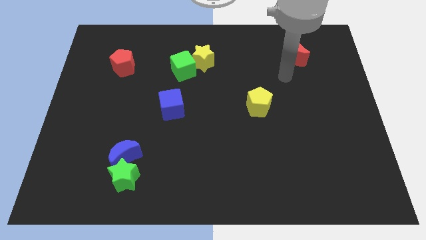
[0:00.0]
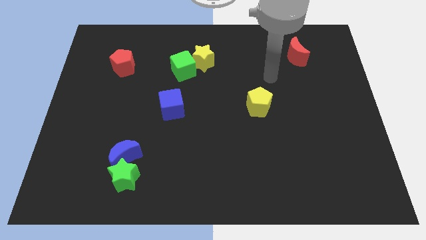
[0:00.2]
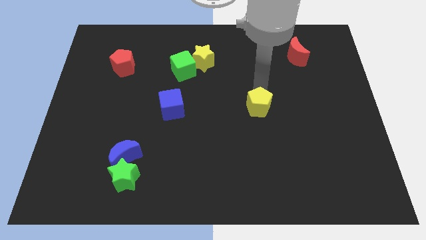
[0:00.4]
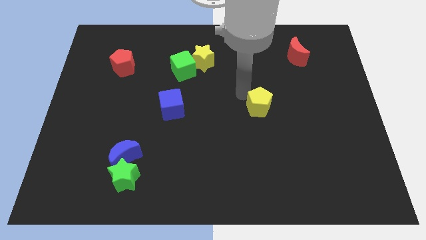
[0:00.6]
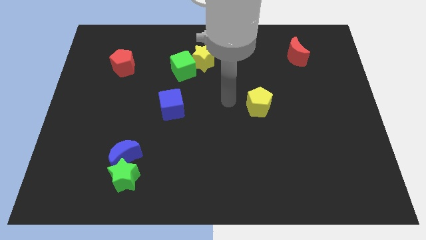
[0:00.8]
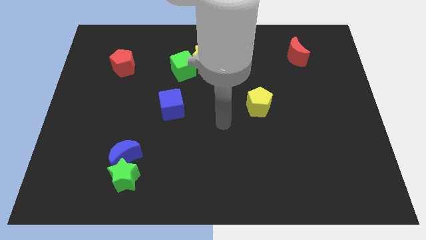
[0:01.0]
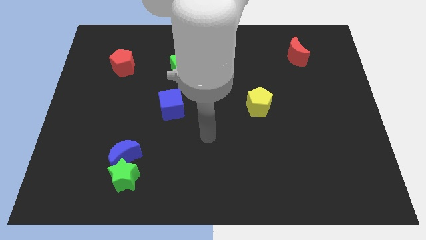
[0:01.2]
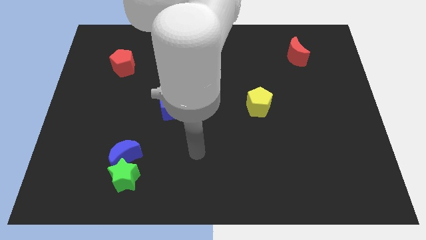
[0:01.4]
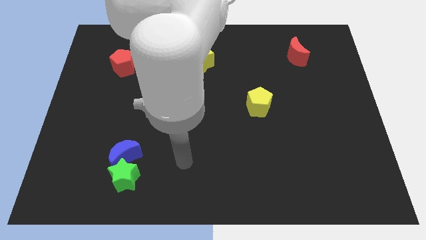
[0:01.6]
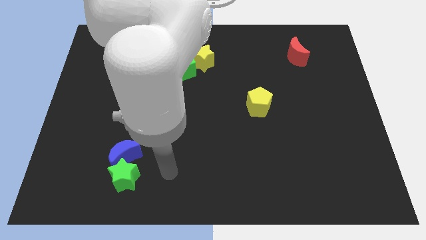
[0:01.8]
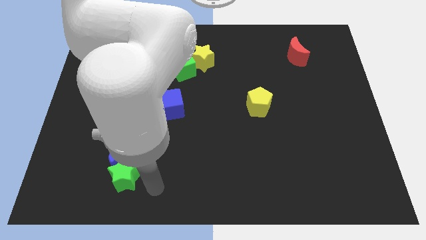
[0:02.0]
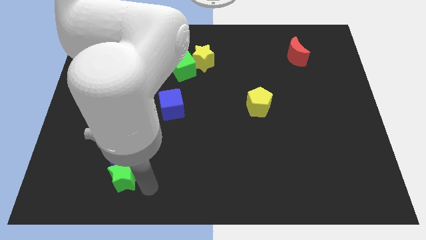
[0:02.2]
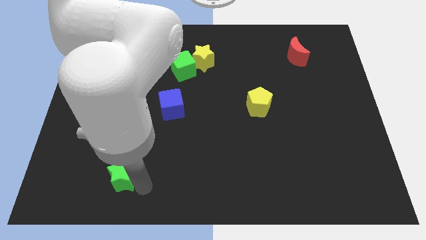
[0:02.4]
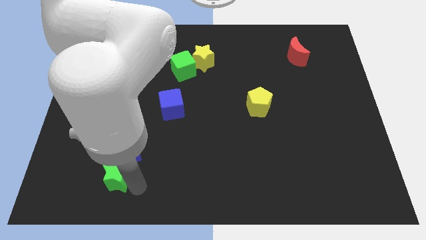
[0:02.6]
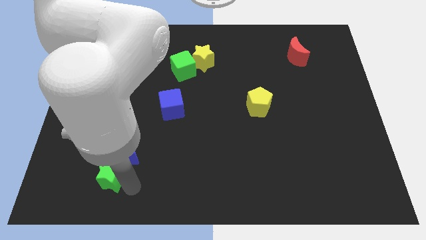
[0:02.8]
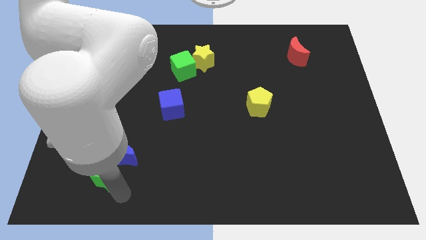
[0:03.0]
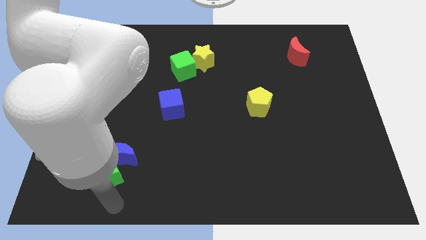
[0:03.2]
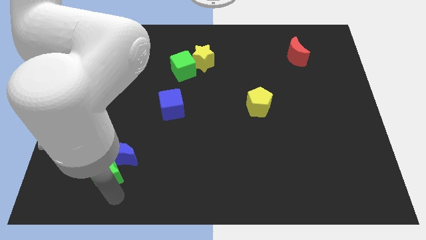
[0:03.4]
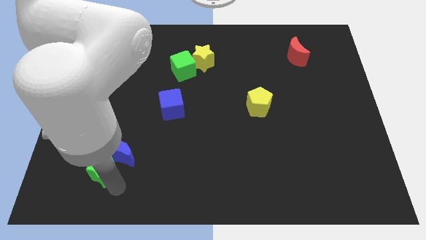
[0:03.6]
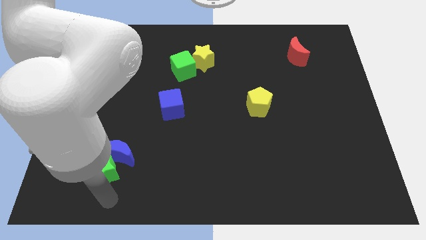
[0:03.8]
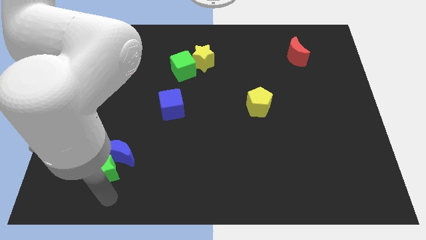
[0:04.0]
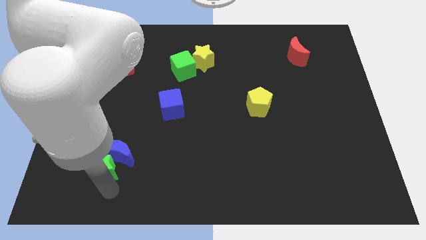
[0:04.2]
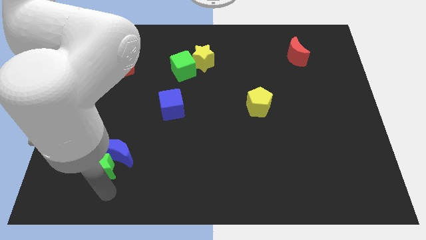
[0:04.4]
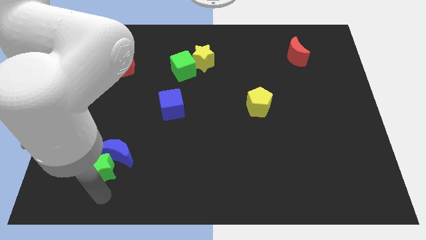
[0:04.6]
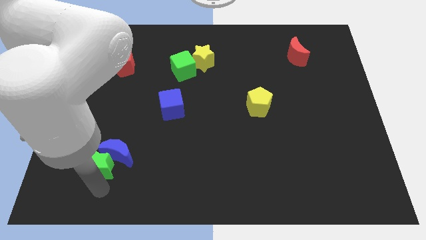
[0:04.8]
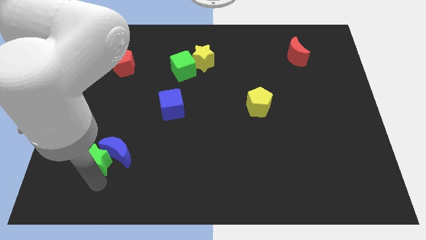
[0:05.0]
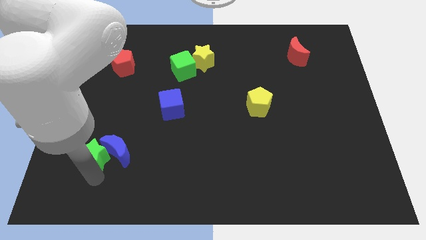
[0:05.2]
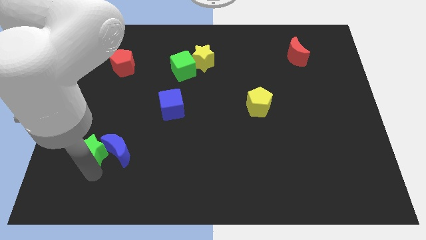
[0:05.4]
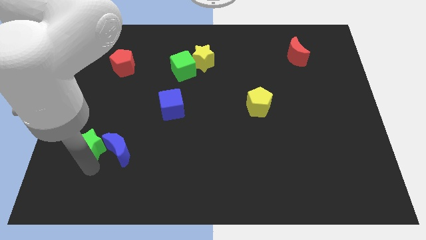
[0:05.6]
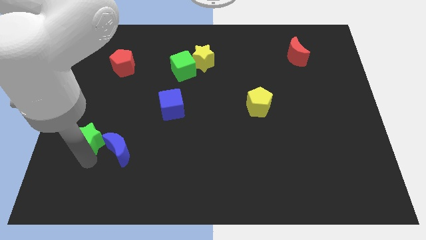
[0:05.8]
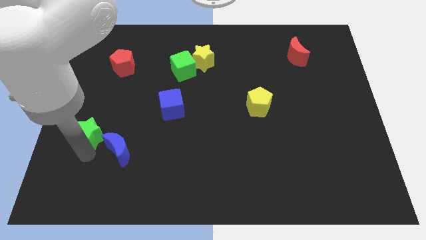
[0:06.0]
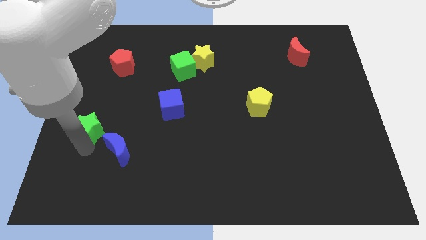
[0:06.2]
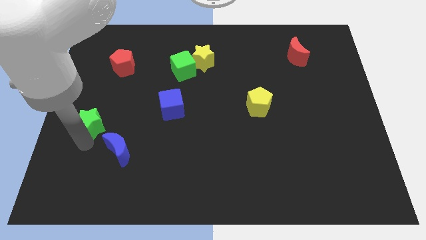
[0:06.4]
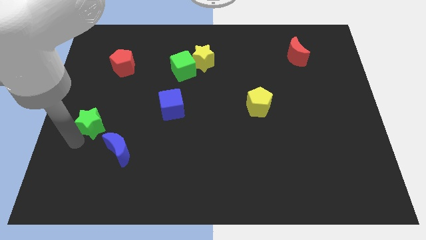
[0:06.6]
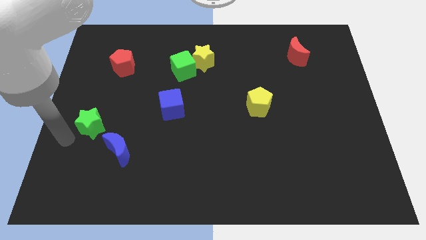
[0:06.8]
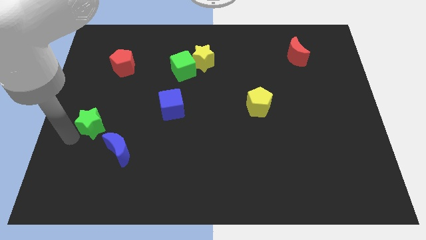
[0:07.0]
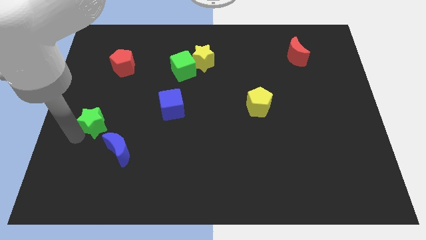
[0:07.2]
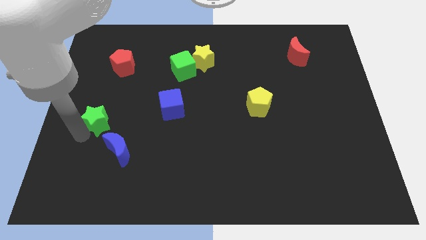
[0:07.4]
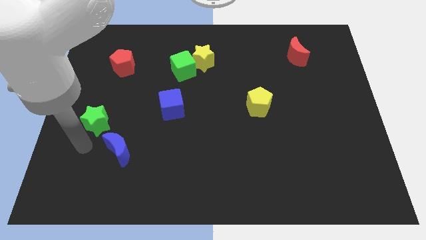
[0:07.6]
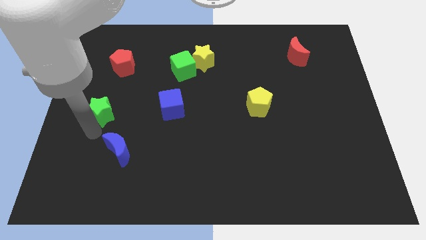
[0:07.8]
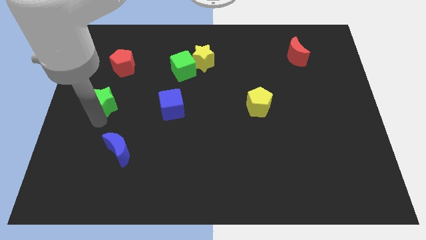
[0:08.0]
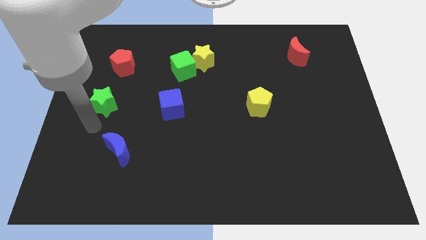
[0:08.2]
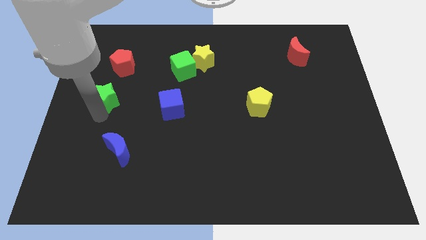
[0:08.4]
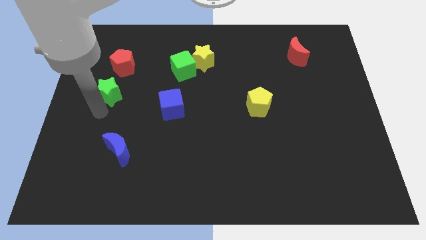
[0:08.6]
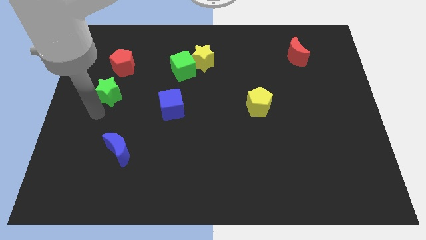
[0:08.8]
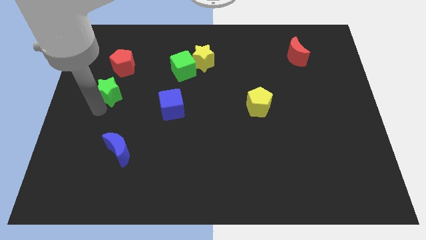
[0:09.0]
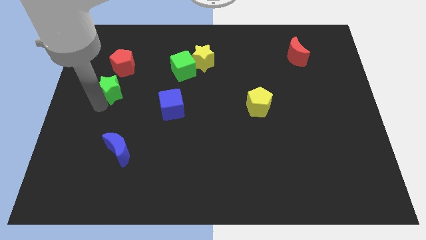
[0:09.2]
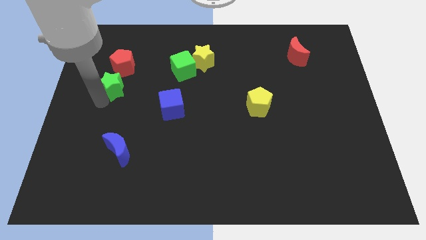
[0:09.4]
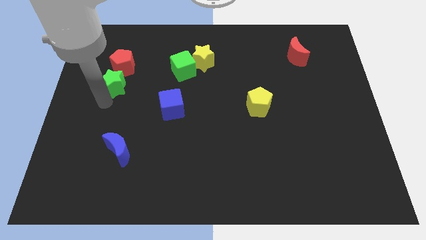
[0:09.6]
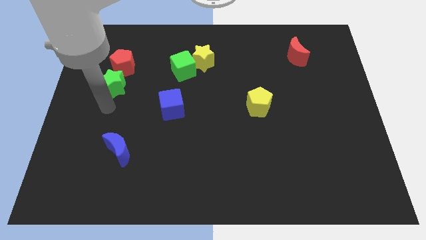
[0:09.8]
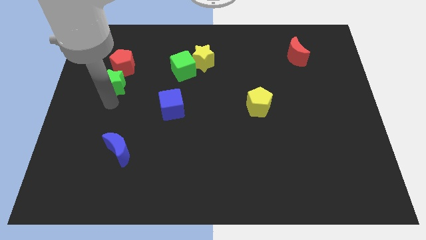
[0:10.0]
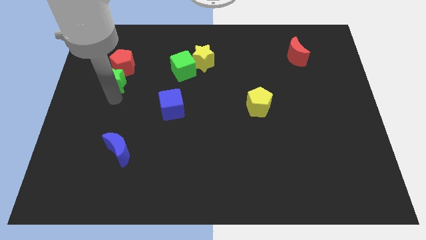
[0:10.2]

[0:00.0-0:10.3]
slide the green star to the red pentagon

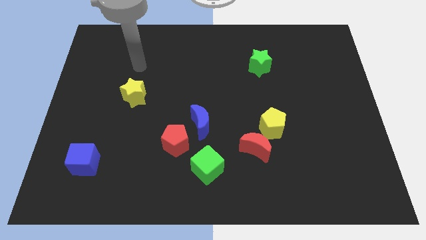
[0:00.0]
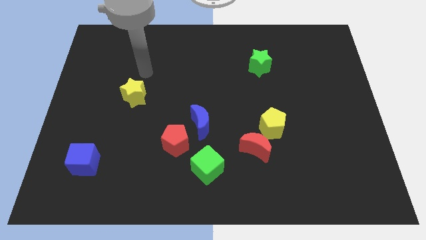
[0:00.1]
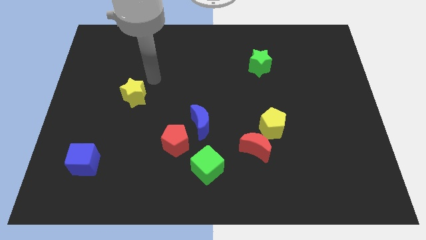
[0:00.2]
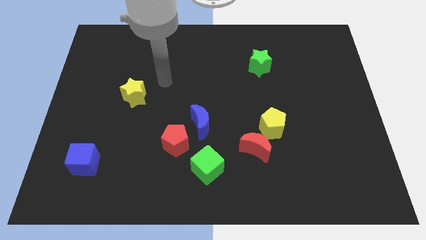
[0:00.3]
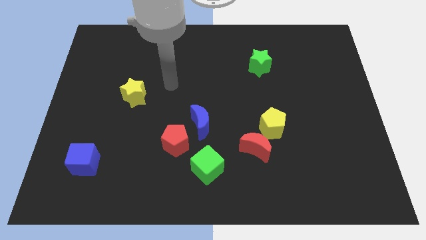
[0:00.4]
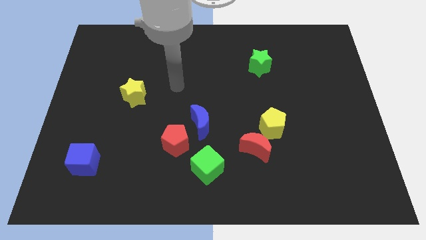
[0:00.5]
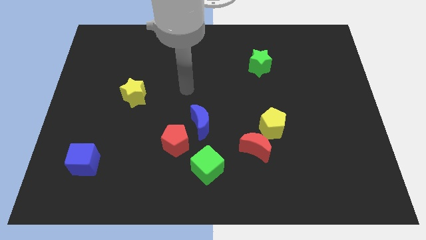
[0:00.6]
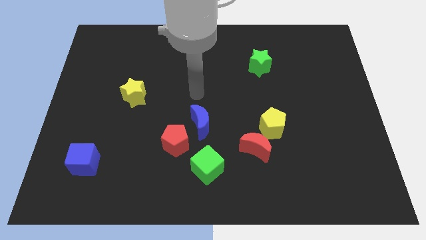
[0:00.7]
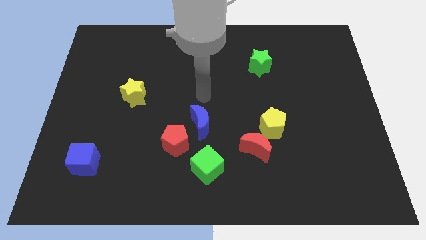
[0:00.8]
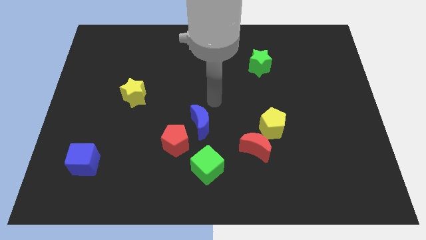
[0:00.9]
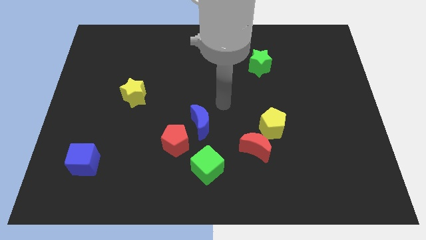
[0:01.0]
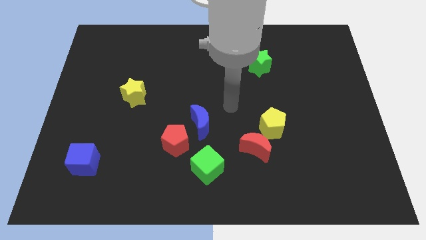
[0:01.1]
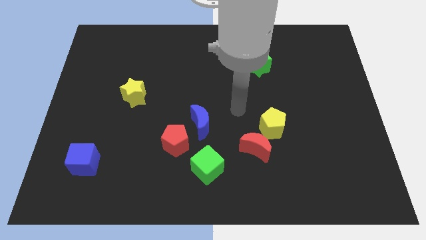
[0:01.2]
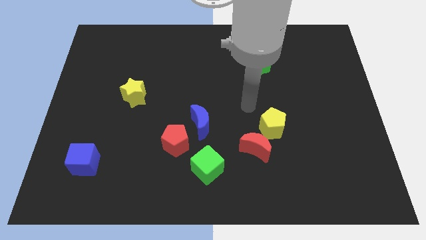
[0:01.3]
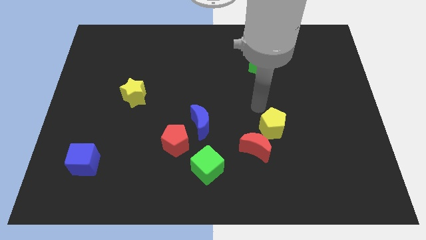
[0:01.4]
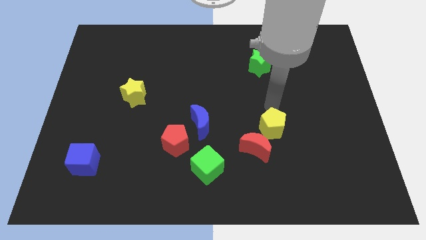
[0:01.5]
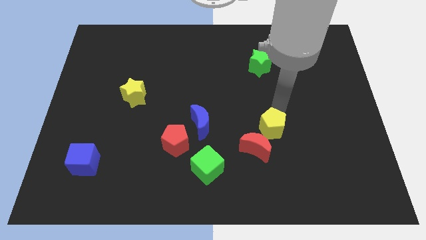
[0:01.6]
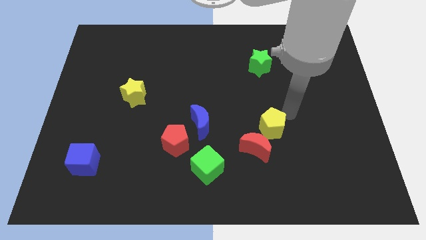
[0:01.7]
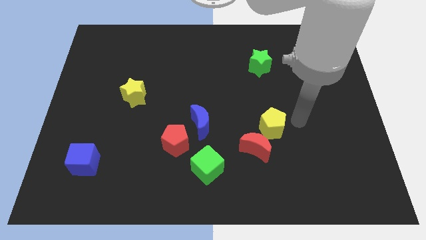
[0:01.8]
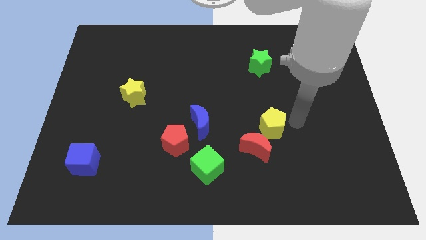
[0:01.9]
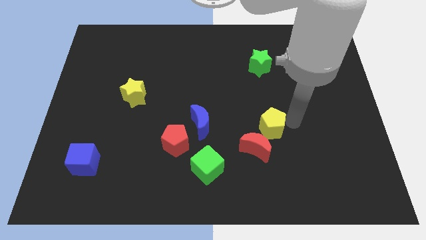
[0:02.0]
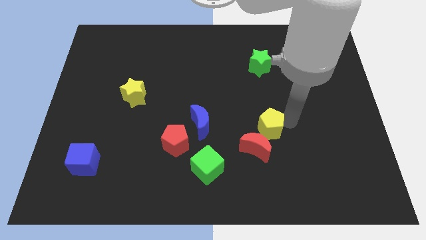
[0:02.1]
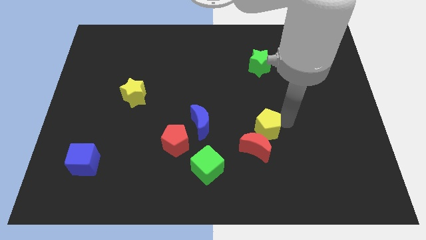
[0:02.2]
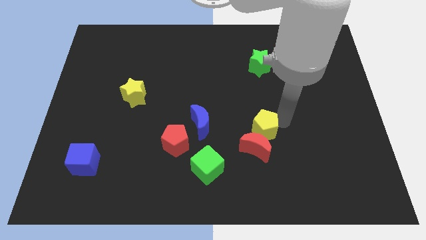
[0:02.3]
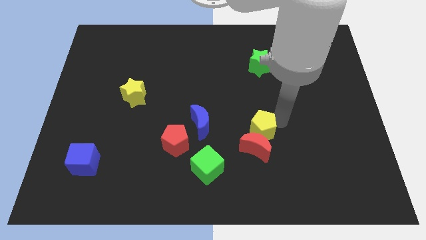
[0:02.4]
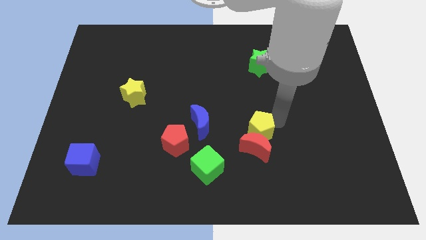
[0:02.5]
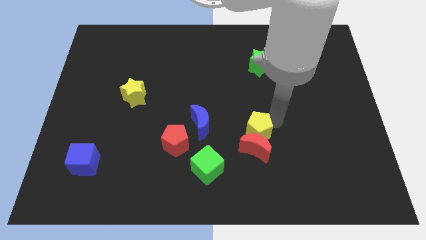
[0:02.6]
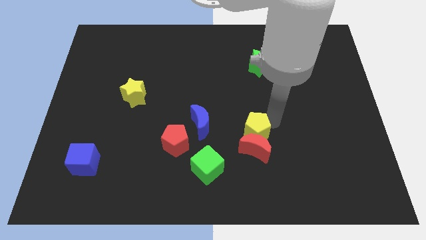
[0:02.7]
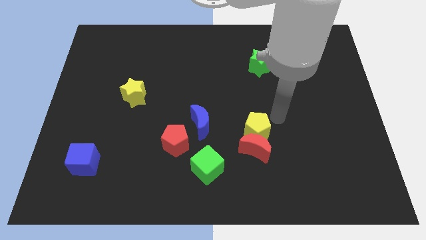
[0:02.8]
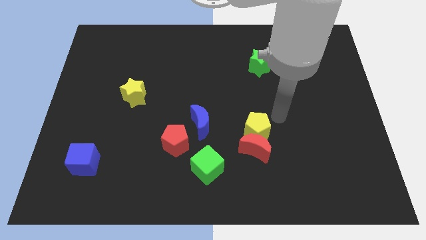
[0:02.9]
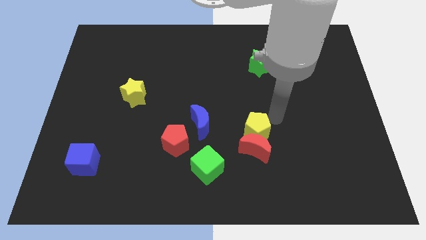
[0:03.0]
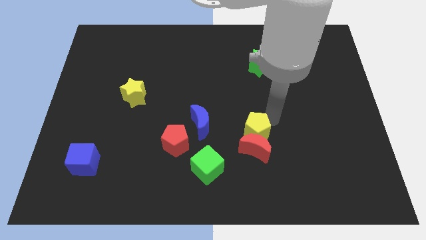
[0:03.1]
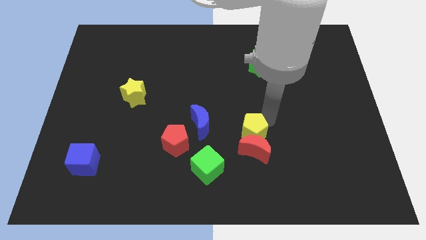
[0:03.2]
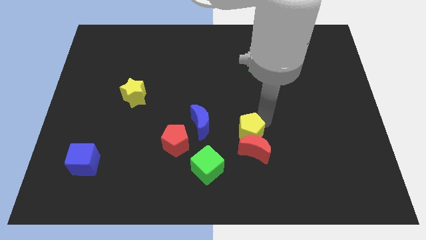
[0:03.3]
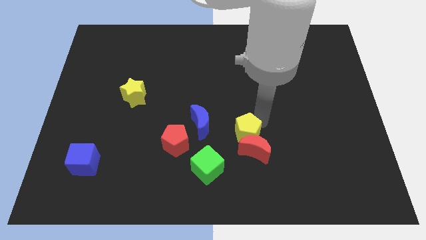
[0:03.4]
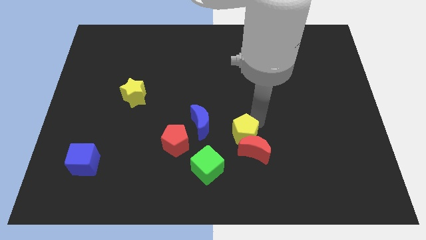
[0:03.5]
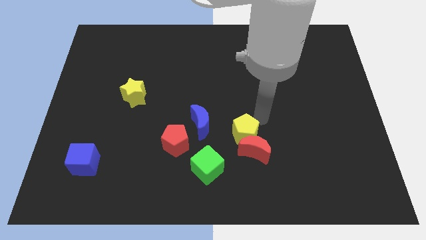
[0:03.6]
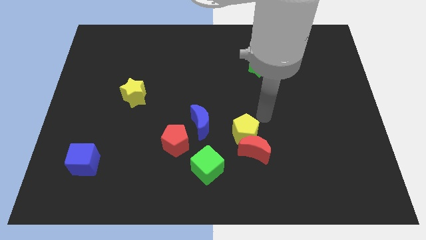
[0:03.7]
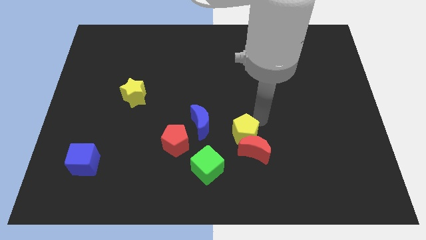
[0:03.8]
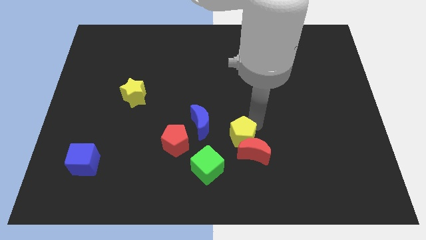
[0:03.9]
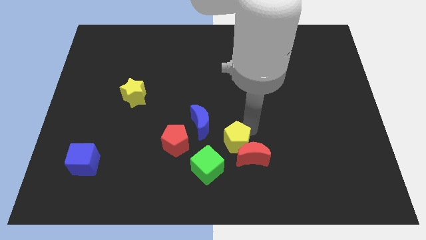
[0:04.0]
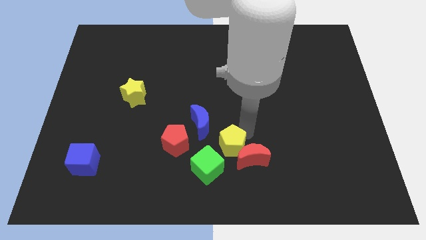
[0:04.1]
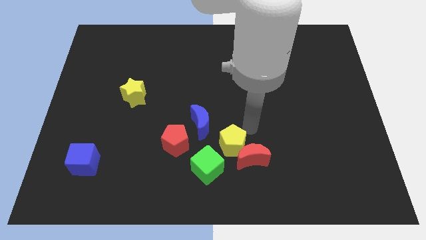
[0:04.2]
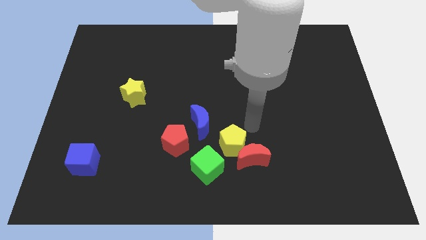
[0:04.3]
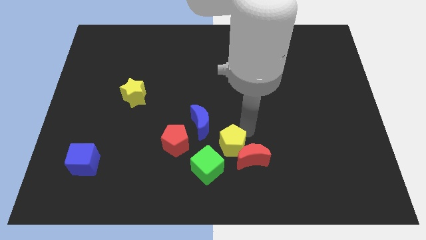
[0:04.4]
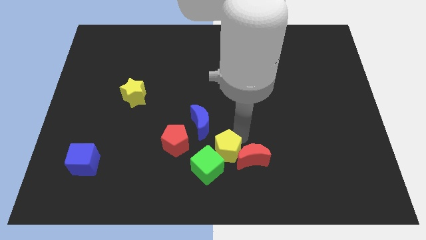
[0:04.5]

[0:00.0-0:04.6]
slide the yellow pentagon close to the green cube
